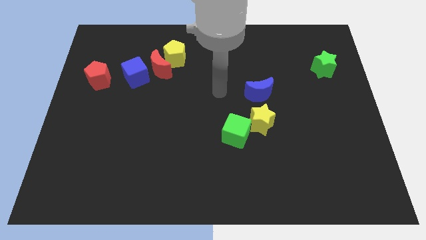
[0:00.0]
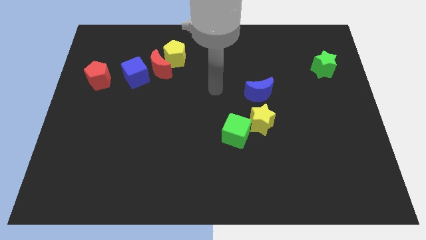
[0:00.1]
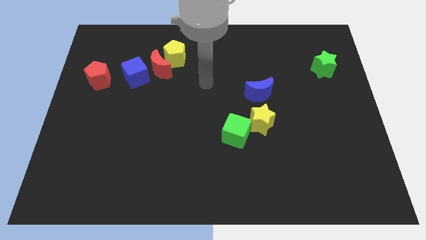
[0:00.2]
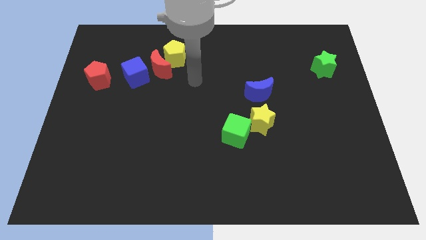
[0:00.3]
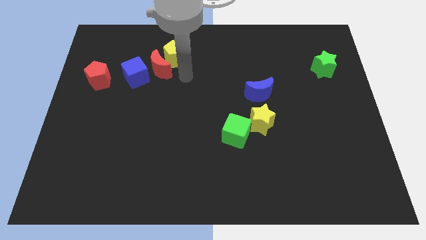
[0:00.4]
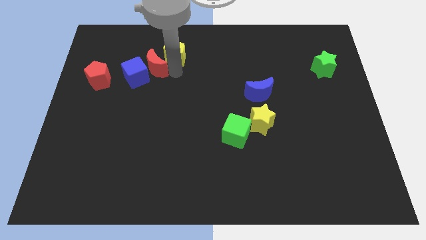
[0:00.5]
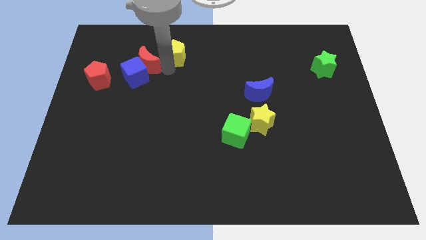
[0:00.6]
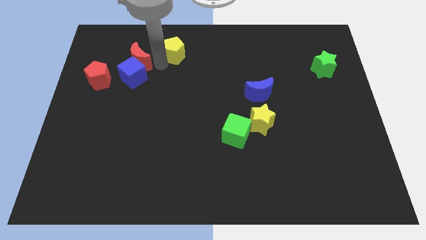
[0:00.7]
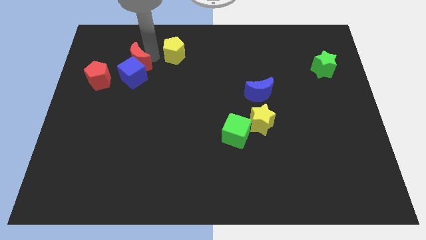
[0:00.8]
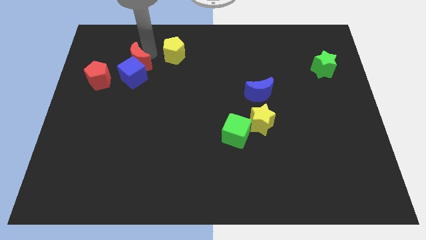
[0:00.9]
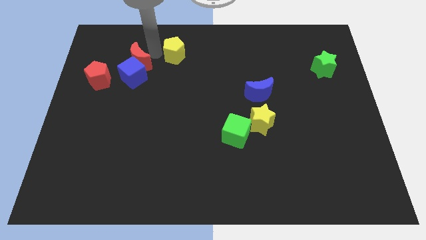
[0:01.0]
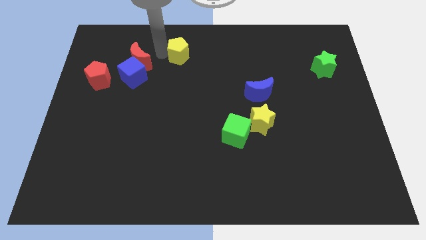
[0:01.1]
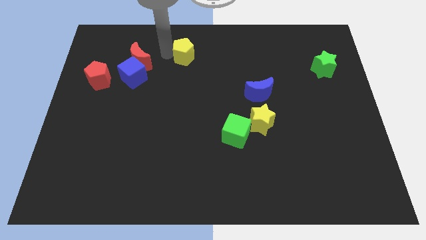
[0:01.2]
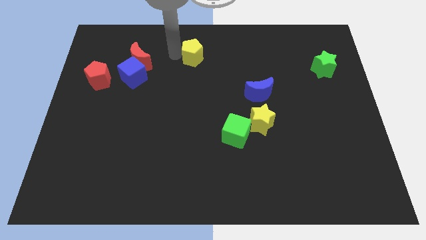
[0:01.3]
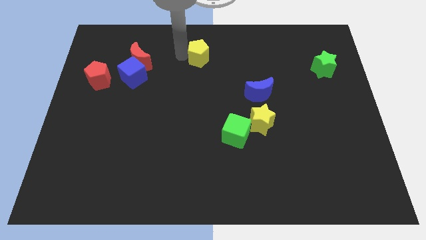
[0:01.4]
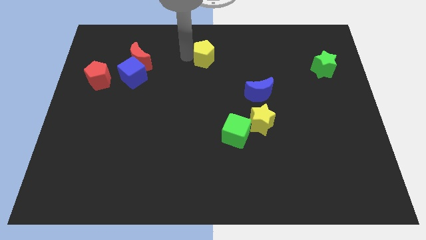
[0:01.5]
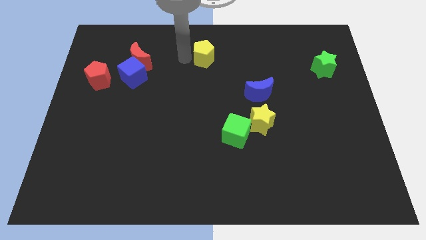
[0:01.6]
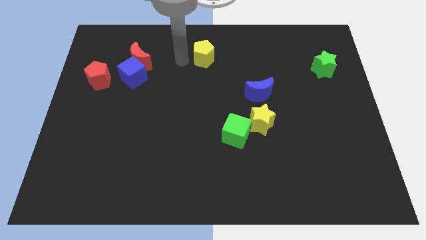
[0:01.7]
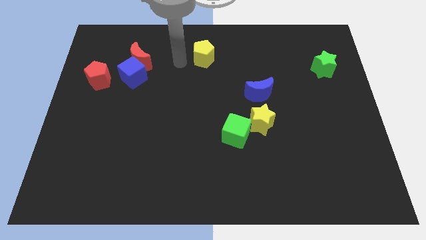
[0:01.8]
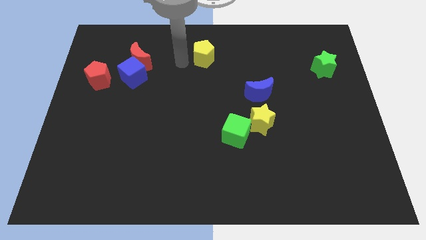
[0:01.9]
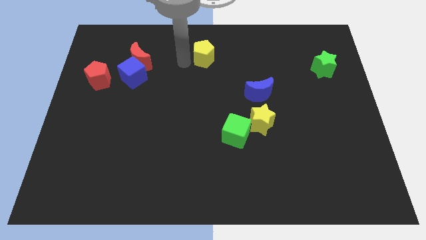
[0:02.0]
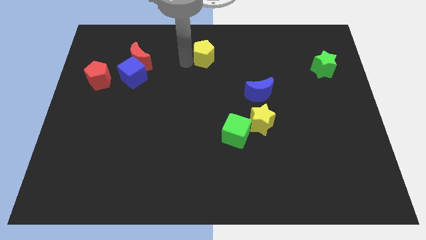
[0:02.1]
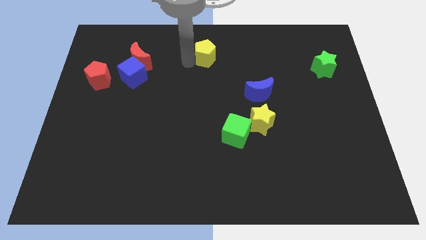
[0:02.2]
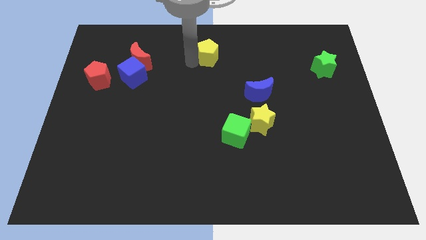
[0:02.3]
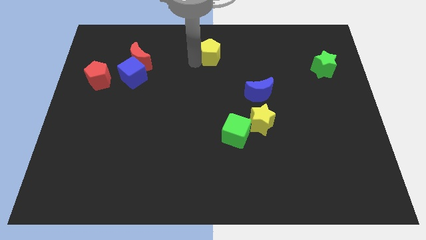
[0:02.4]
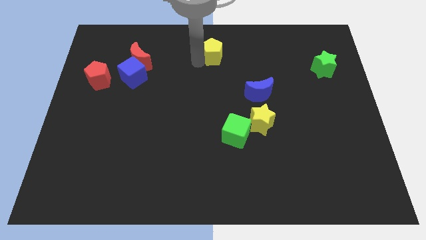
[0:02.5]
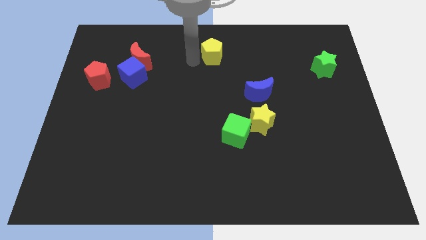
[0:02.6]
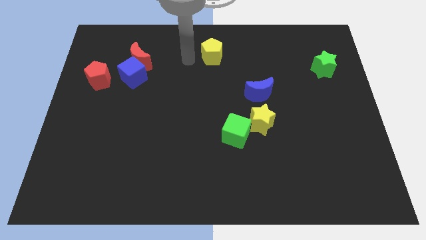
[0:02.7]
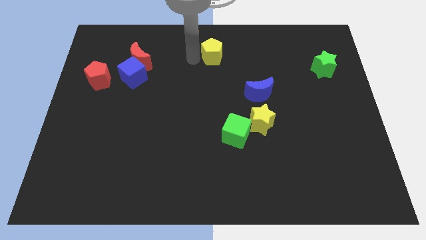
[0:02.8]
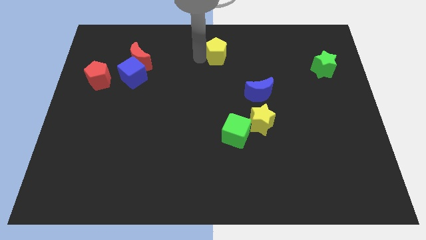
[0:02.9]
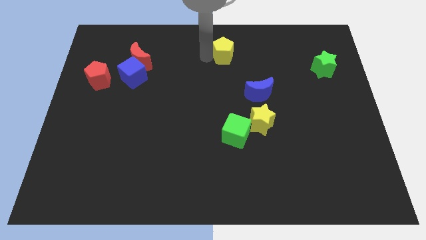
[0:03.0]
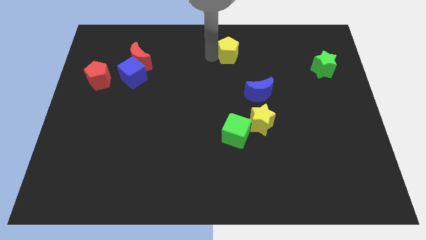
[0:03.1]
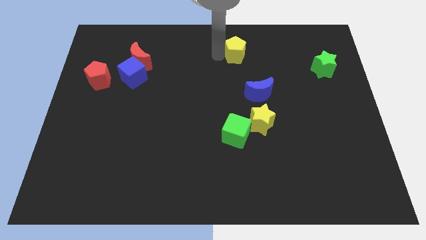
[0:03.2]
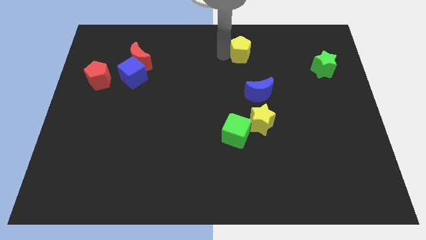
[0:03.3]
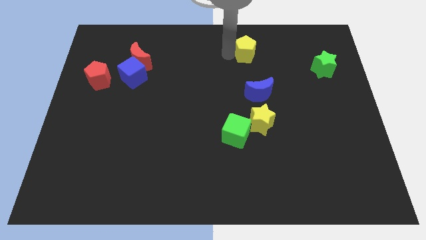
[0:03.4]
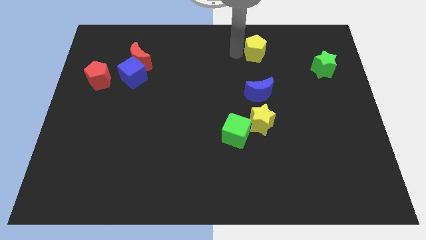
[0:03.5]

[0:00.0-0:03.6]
move the yellow pentagon to the right

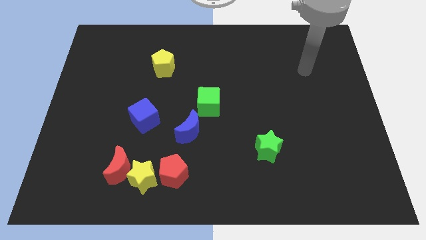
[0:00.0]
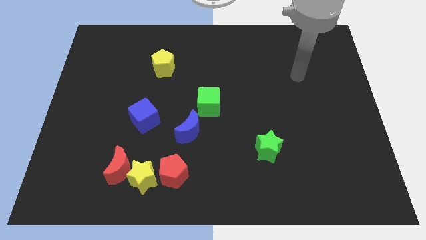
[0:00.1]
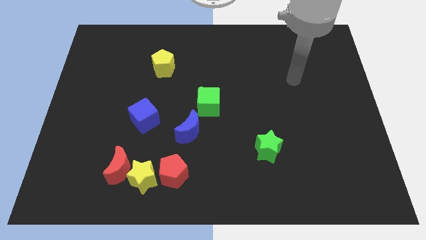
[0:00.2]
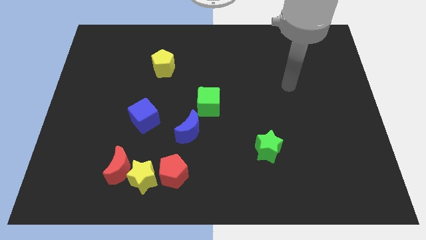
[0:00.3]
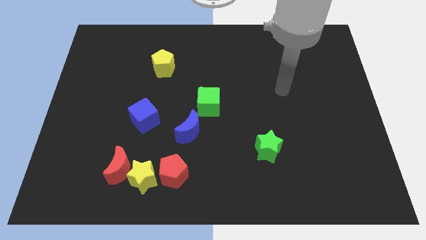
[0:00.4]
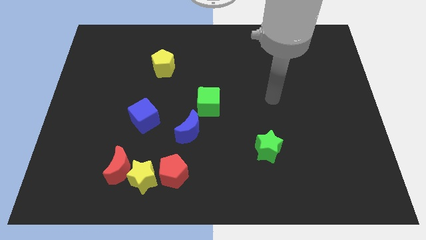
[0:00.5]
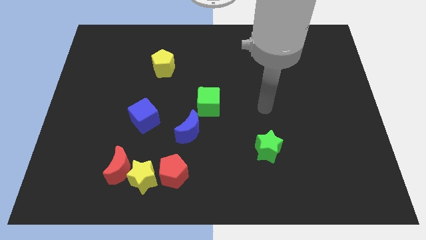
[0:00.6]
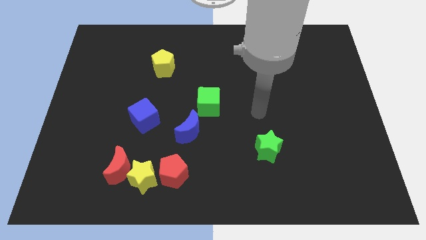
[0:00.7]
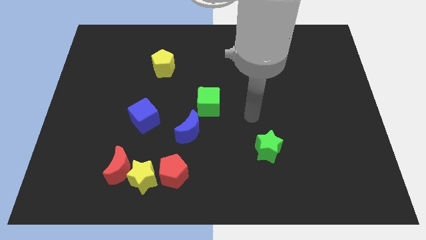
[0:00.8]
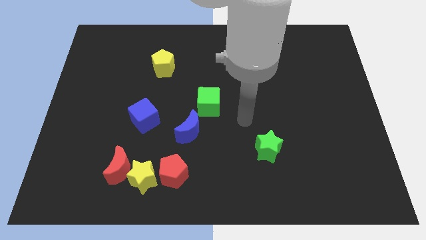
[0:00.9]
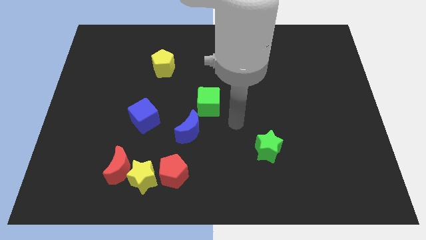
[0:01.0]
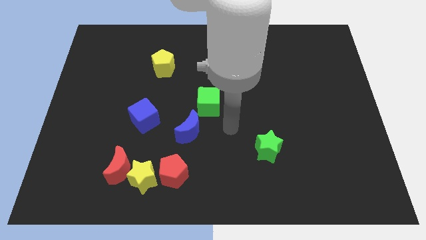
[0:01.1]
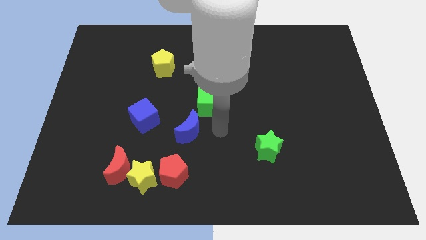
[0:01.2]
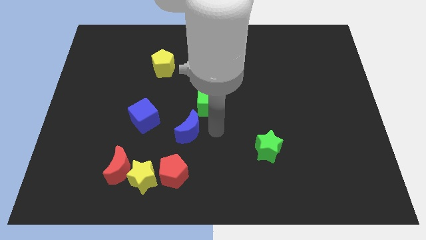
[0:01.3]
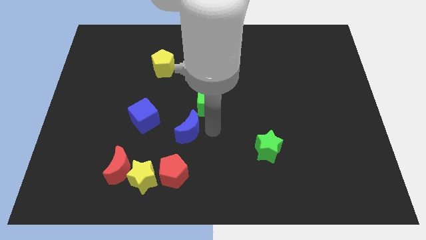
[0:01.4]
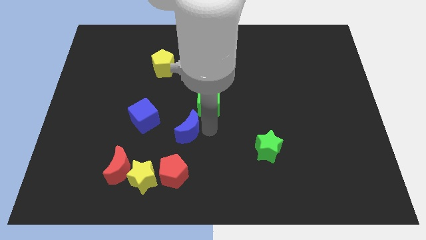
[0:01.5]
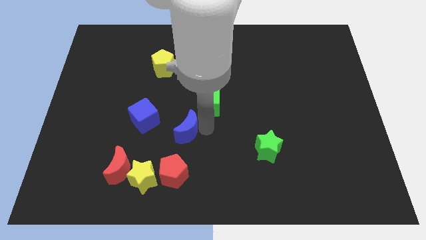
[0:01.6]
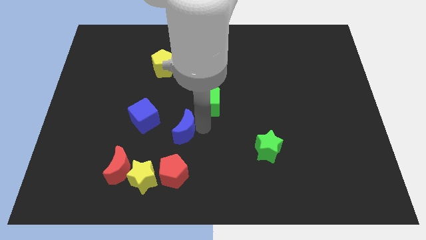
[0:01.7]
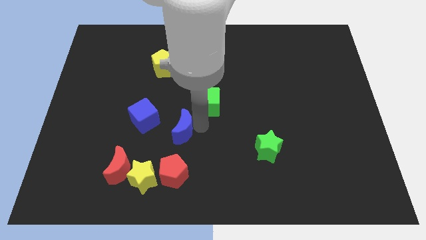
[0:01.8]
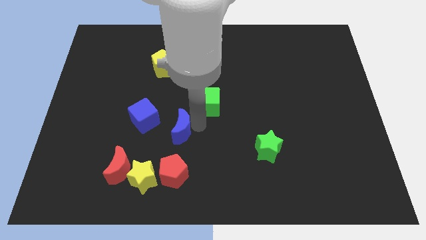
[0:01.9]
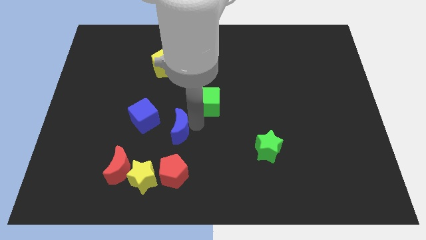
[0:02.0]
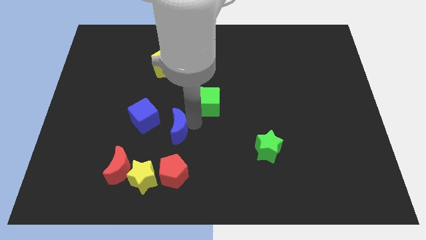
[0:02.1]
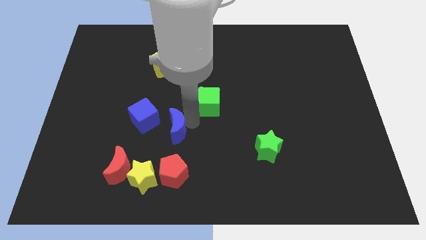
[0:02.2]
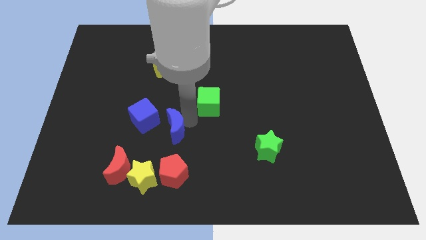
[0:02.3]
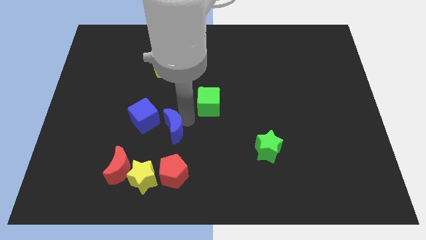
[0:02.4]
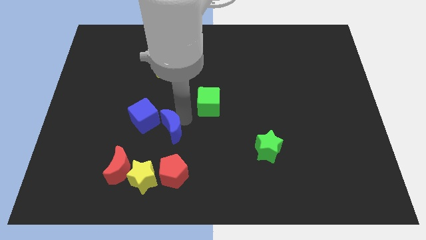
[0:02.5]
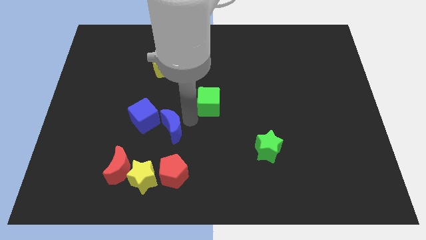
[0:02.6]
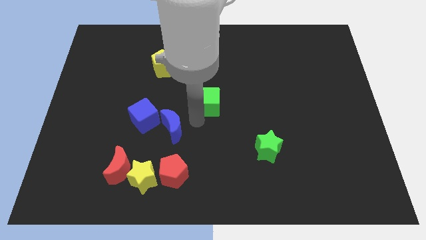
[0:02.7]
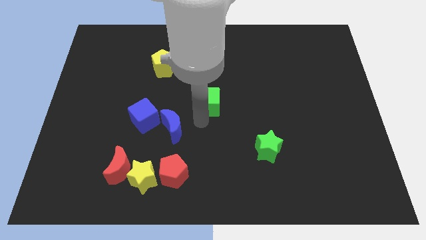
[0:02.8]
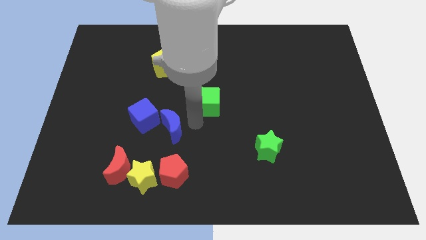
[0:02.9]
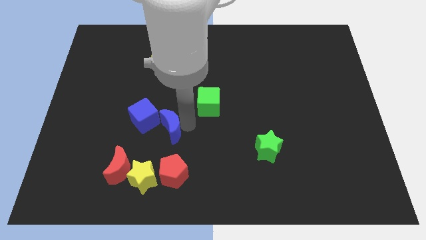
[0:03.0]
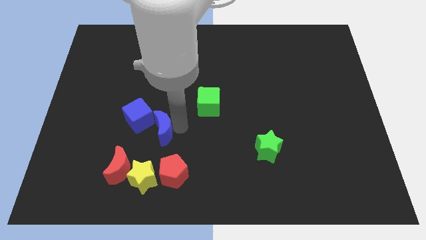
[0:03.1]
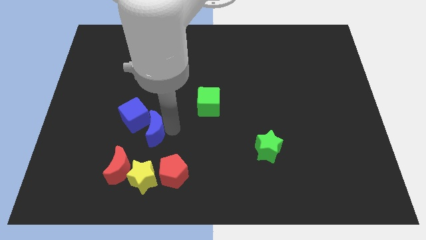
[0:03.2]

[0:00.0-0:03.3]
slightly slide the blue moon left

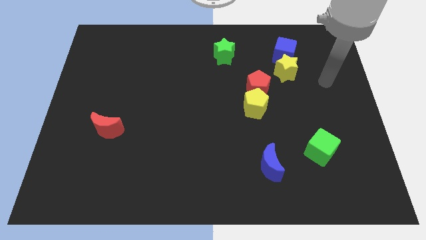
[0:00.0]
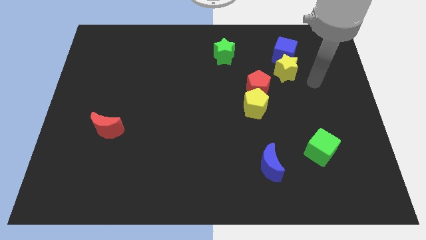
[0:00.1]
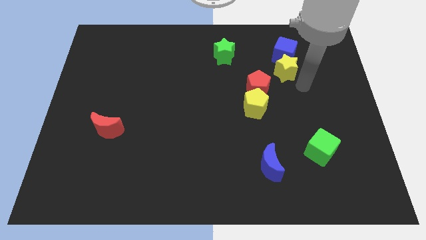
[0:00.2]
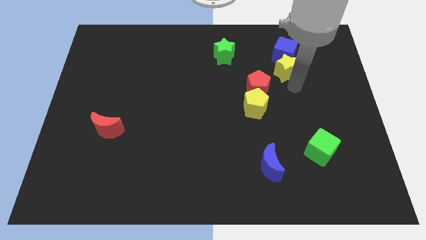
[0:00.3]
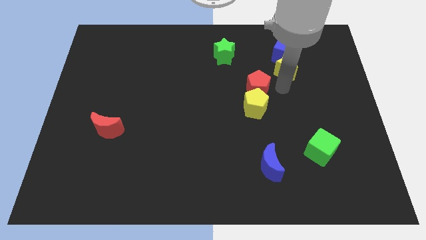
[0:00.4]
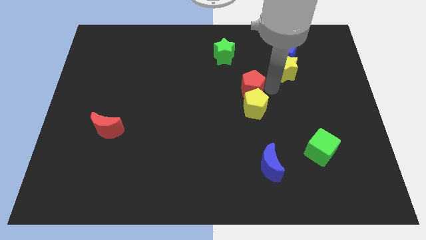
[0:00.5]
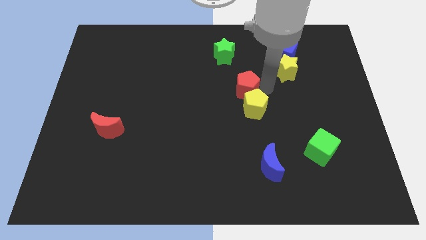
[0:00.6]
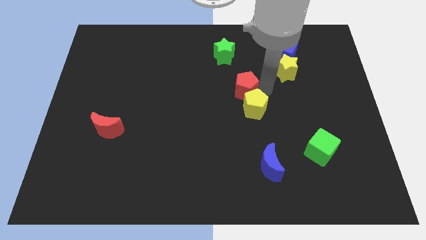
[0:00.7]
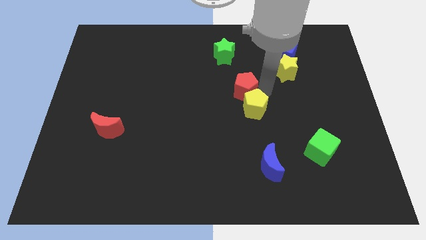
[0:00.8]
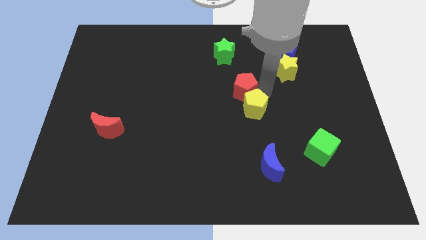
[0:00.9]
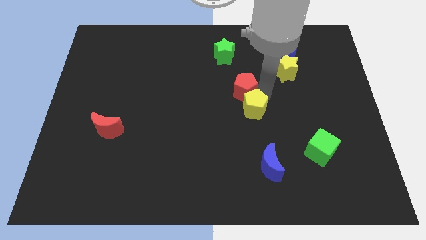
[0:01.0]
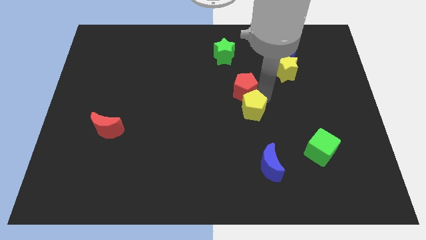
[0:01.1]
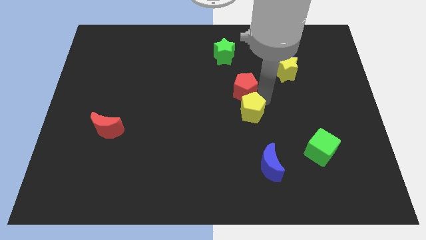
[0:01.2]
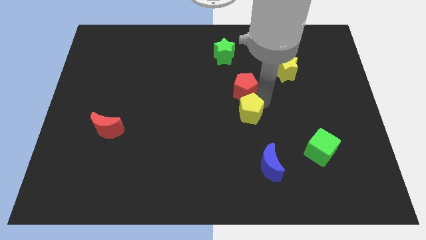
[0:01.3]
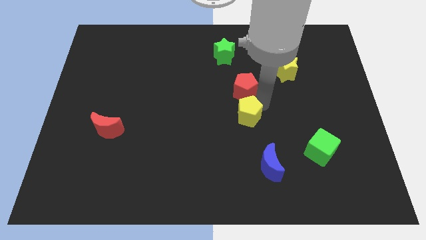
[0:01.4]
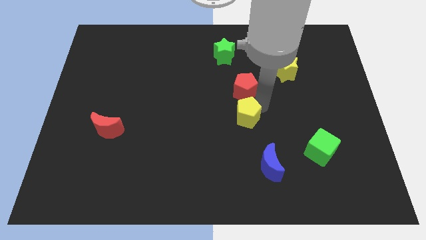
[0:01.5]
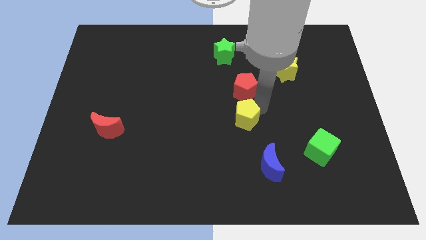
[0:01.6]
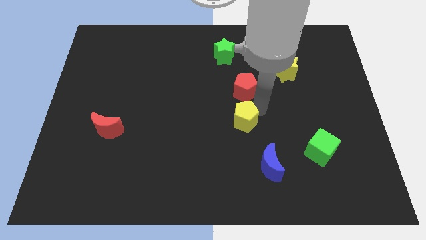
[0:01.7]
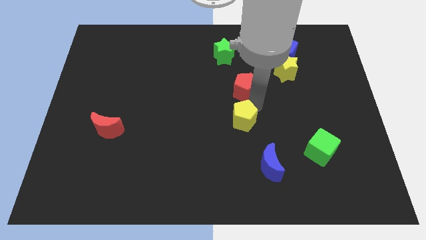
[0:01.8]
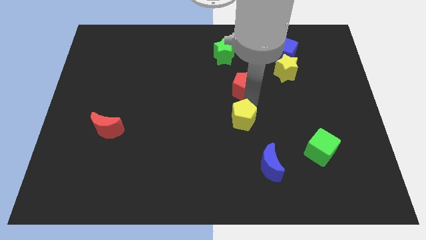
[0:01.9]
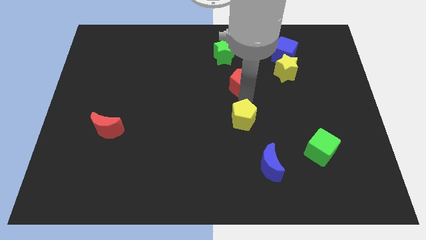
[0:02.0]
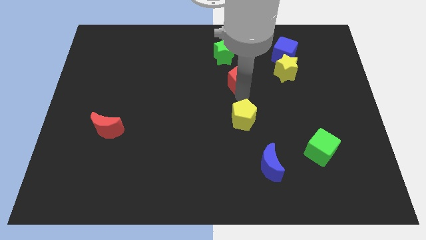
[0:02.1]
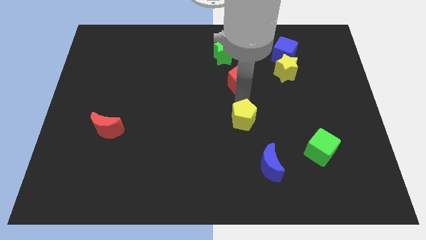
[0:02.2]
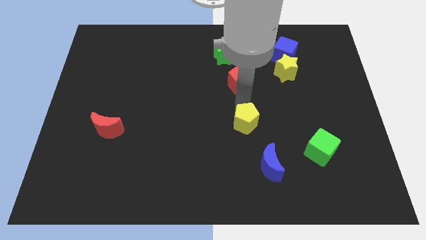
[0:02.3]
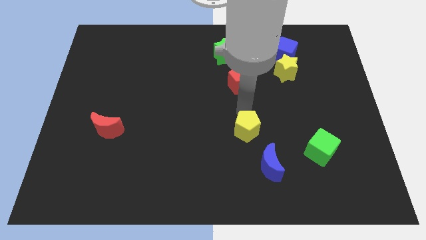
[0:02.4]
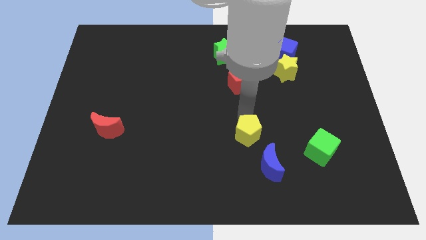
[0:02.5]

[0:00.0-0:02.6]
move the yellow pentagon a bit downwards
